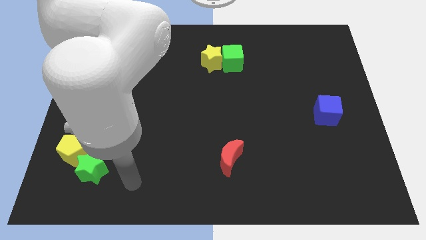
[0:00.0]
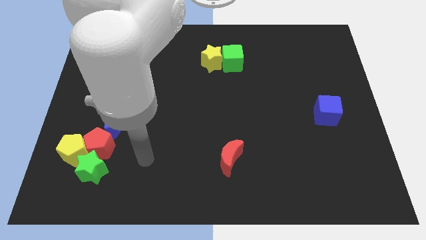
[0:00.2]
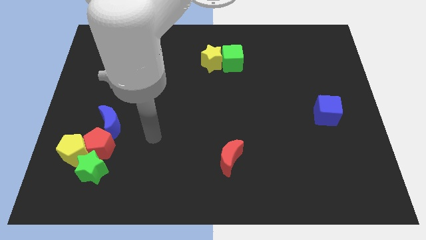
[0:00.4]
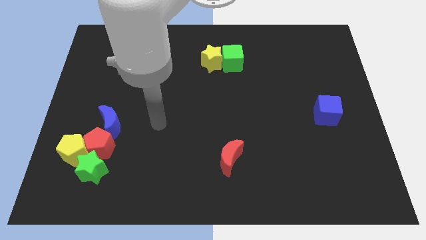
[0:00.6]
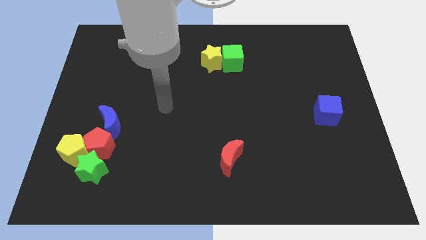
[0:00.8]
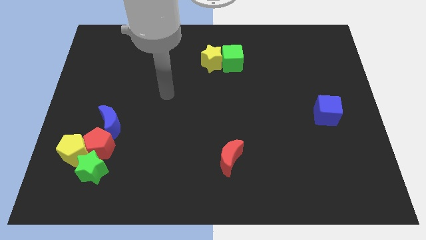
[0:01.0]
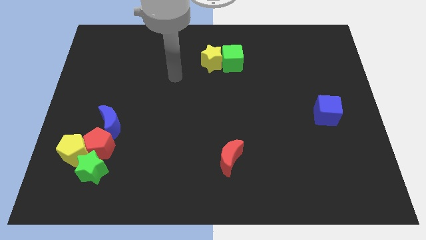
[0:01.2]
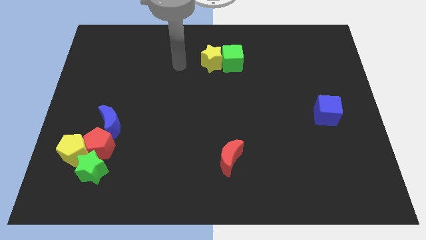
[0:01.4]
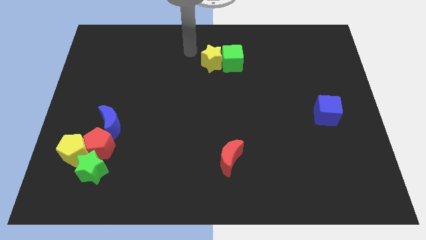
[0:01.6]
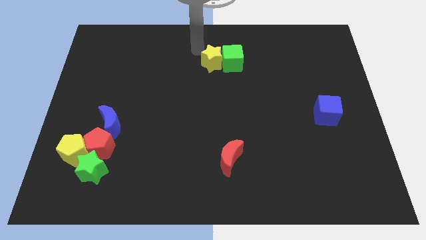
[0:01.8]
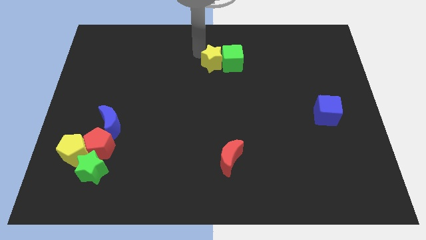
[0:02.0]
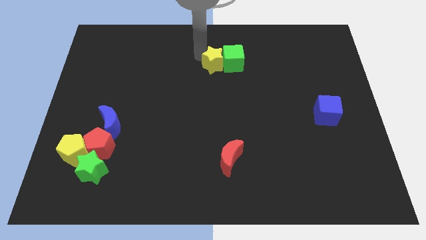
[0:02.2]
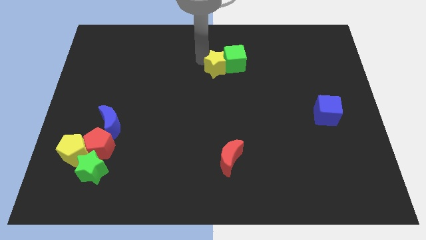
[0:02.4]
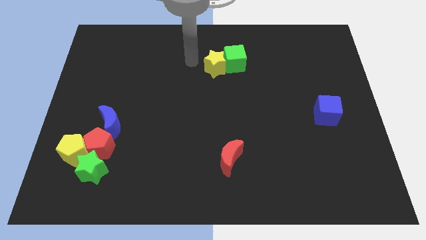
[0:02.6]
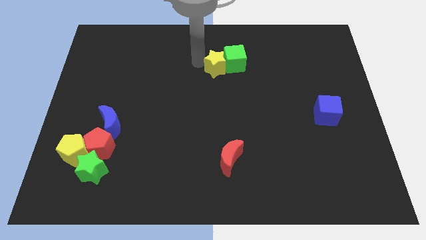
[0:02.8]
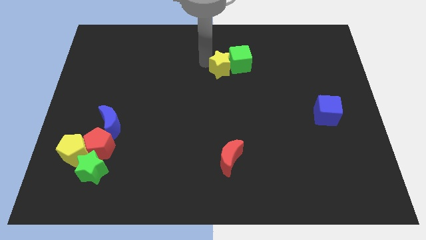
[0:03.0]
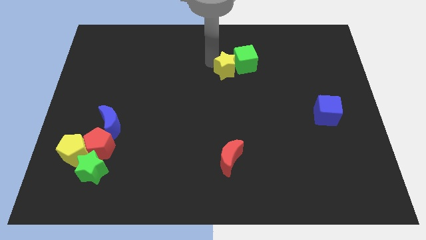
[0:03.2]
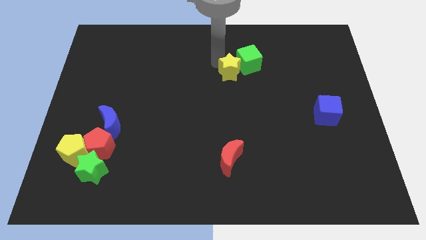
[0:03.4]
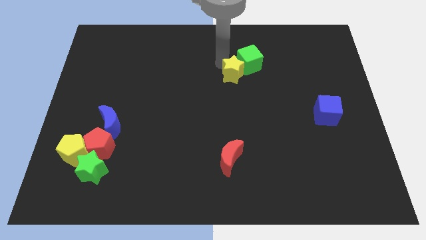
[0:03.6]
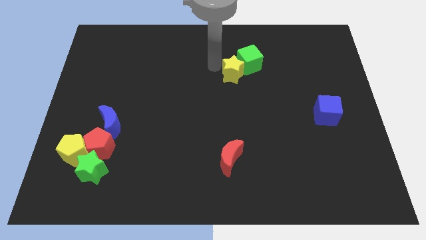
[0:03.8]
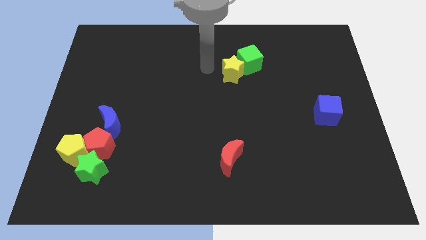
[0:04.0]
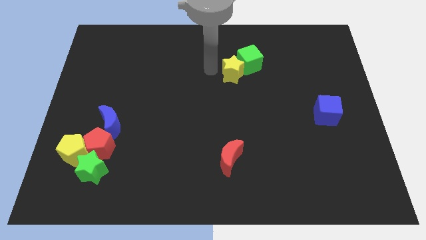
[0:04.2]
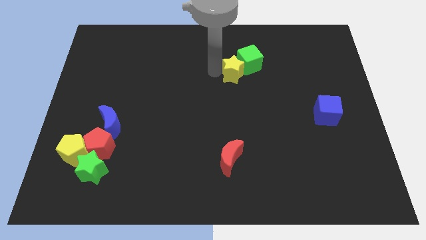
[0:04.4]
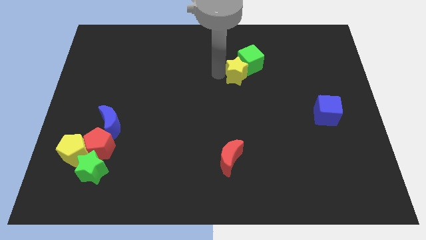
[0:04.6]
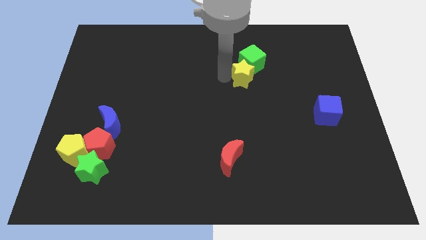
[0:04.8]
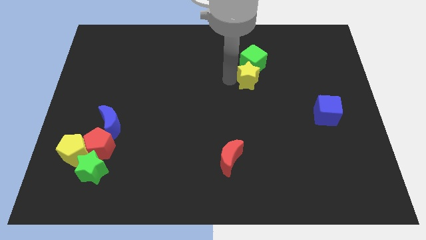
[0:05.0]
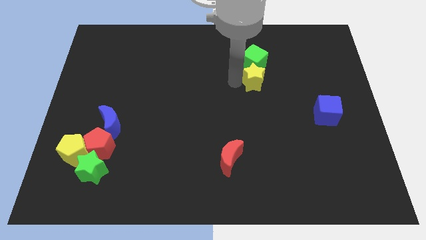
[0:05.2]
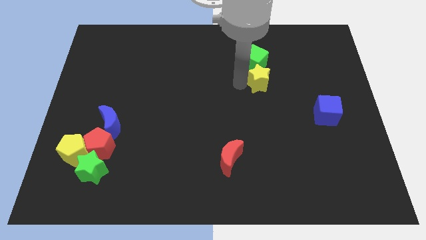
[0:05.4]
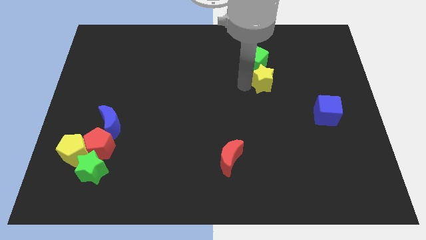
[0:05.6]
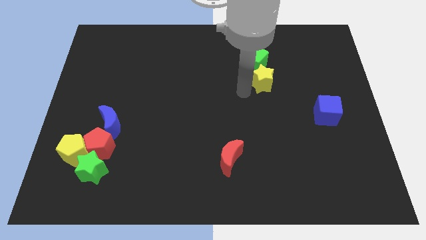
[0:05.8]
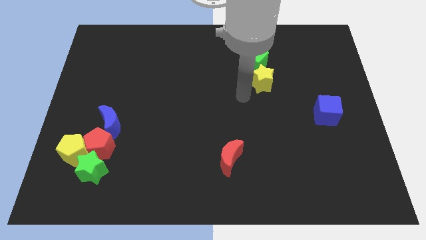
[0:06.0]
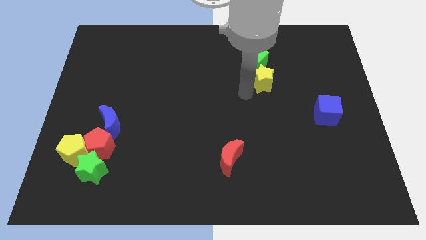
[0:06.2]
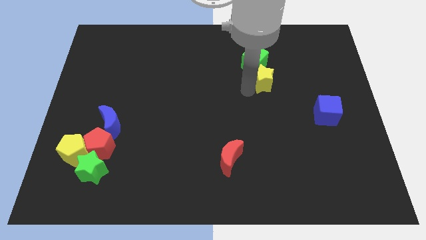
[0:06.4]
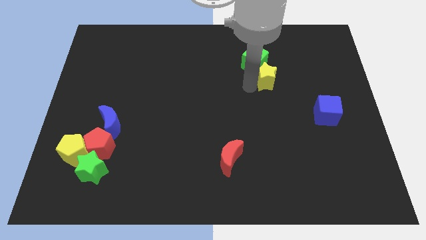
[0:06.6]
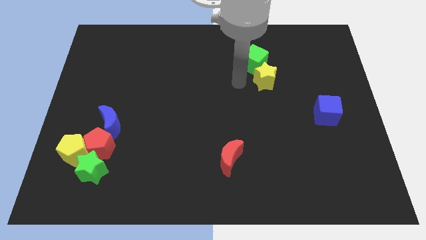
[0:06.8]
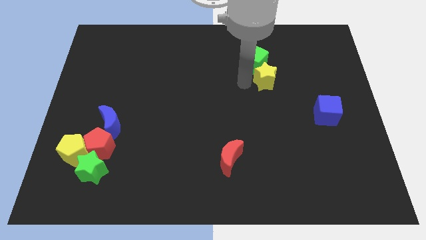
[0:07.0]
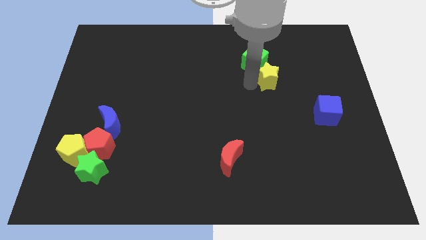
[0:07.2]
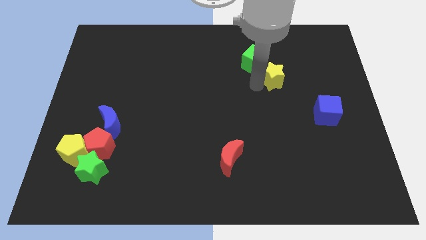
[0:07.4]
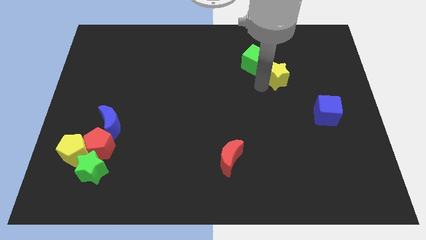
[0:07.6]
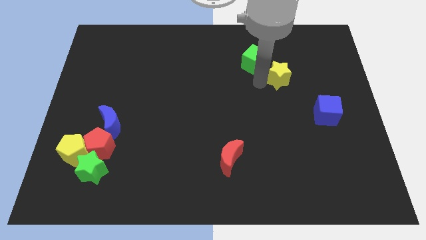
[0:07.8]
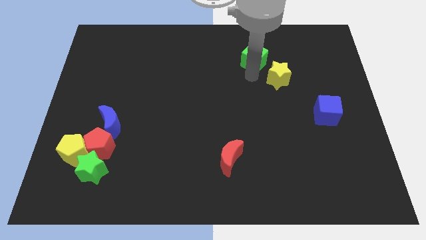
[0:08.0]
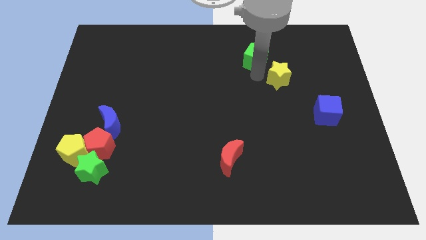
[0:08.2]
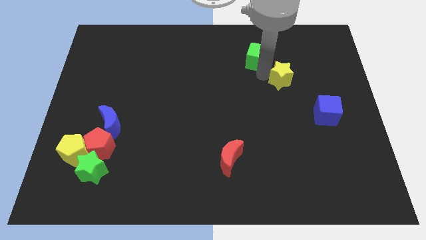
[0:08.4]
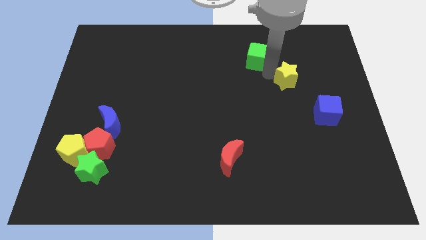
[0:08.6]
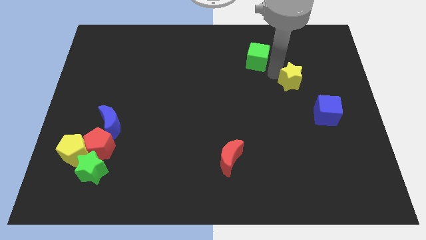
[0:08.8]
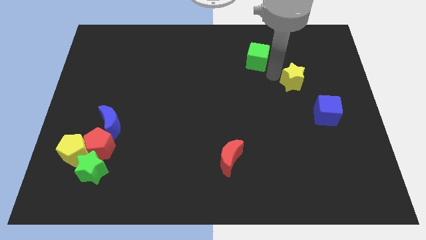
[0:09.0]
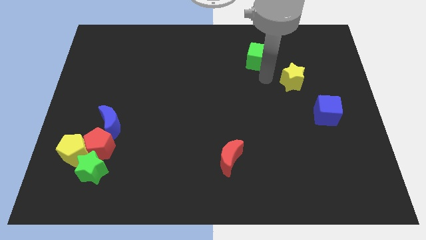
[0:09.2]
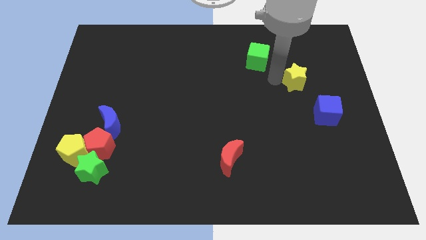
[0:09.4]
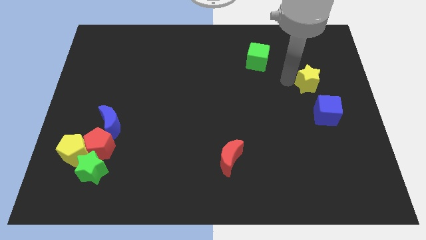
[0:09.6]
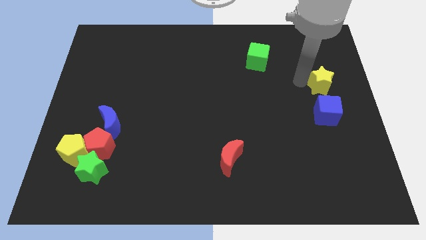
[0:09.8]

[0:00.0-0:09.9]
slide the yellow star to the right side of the board

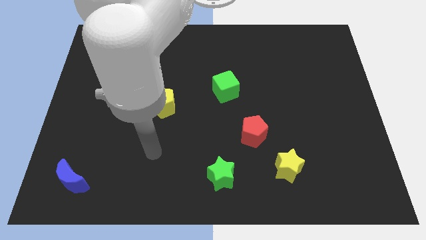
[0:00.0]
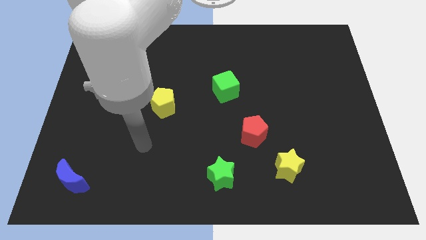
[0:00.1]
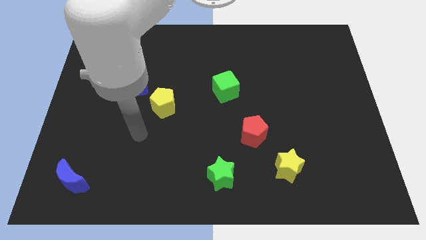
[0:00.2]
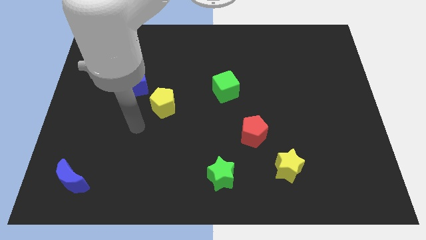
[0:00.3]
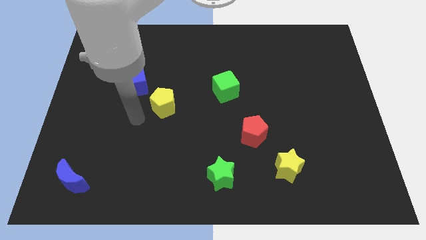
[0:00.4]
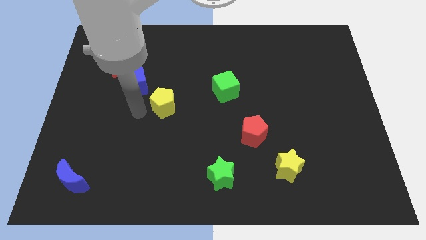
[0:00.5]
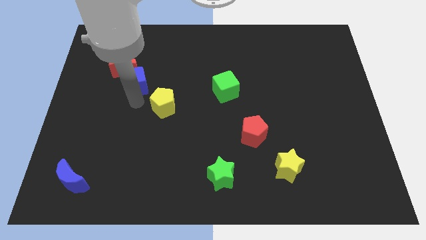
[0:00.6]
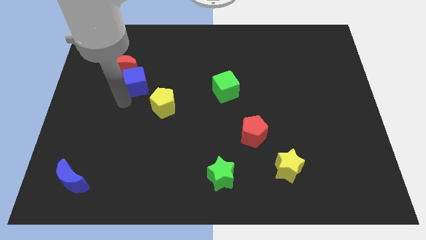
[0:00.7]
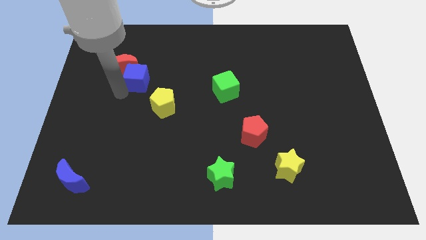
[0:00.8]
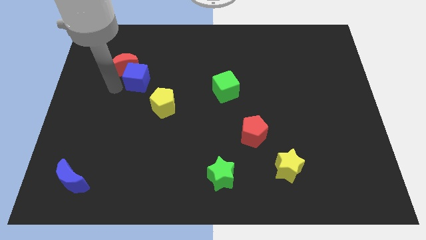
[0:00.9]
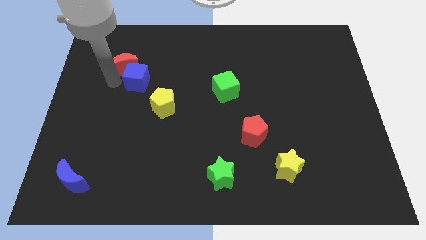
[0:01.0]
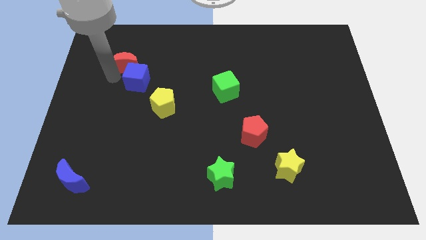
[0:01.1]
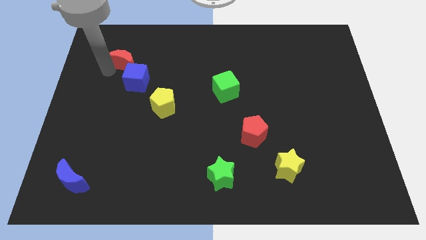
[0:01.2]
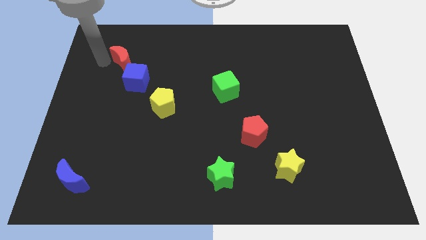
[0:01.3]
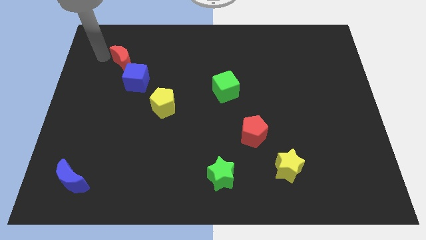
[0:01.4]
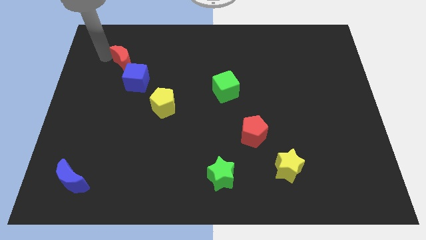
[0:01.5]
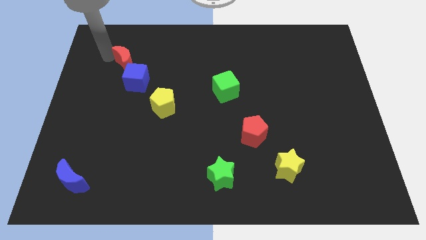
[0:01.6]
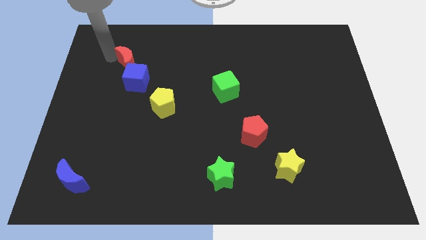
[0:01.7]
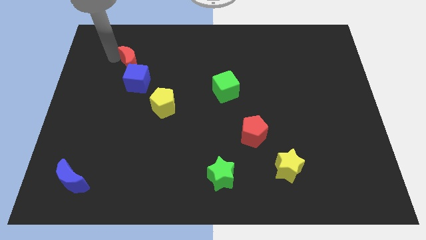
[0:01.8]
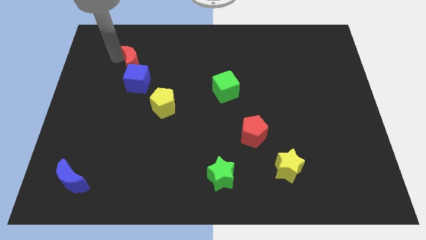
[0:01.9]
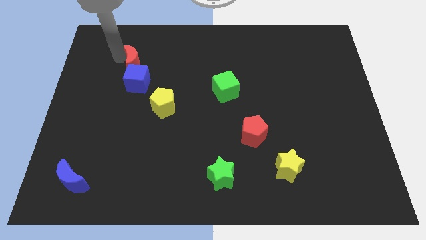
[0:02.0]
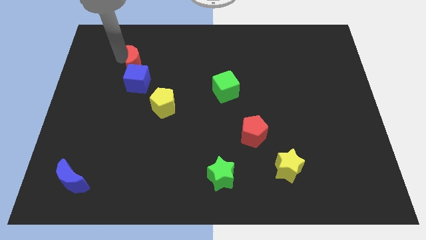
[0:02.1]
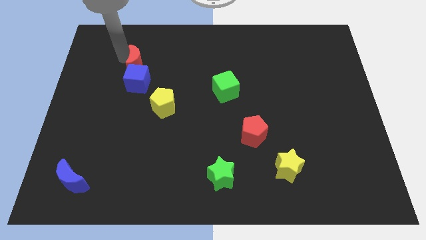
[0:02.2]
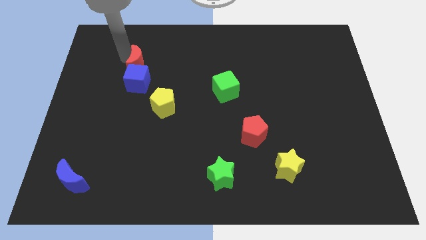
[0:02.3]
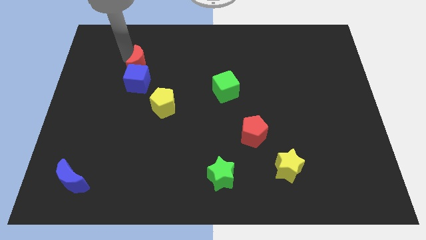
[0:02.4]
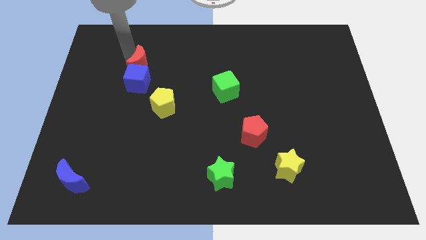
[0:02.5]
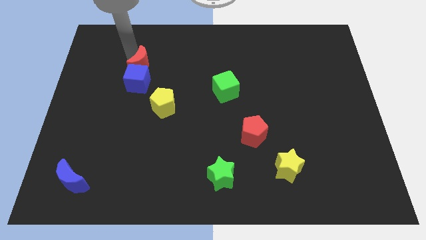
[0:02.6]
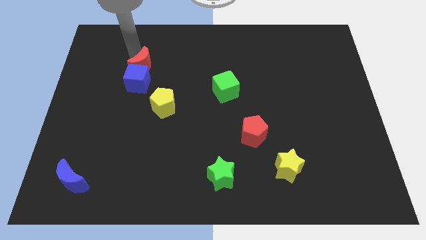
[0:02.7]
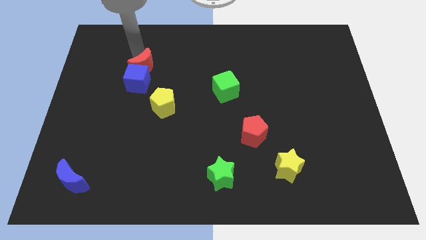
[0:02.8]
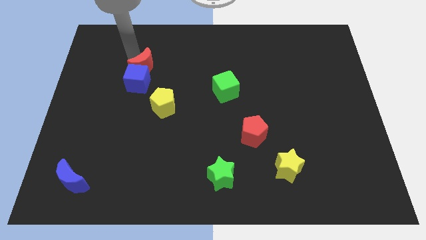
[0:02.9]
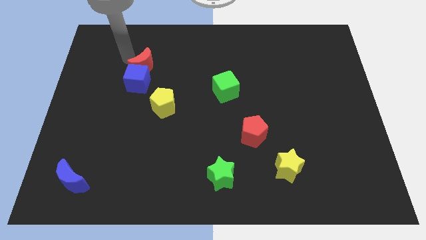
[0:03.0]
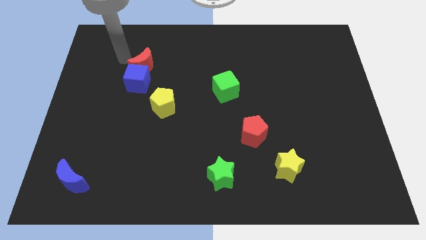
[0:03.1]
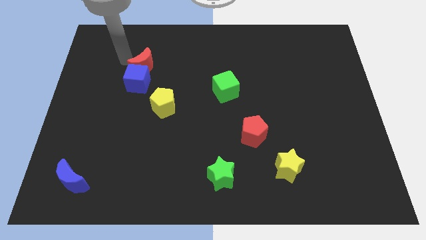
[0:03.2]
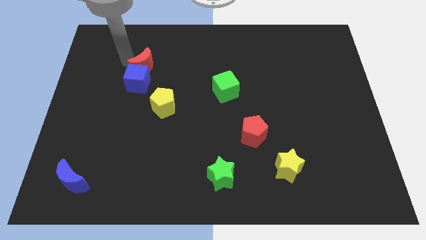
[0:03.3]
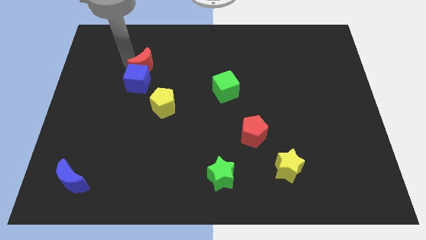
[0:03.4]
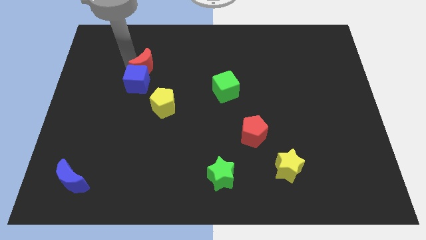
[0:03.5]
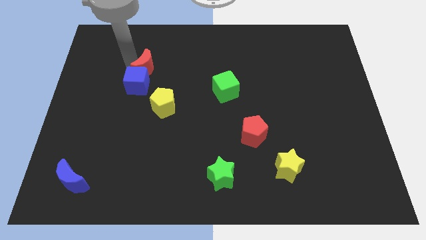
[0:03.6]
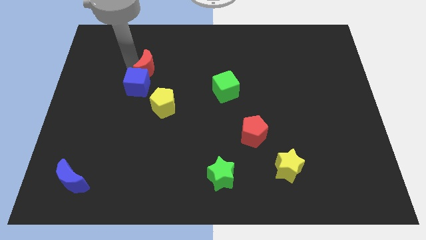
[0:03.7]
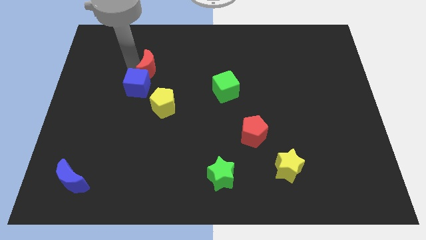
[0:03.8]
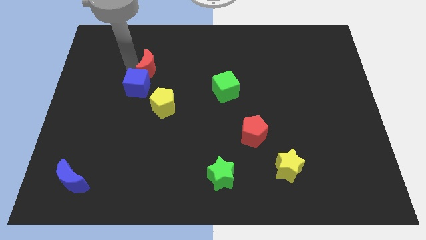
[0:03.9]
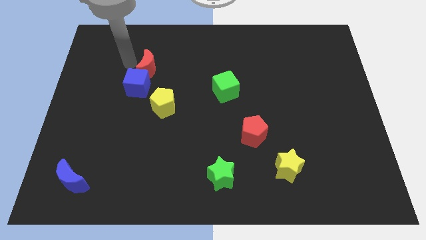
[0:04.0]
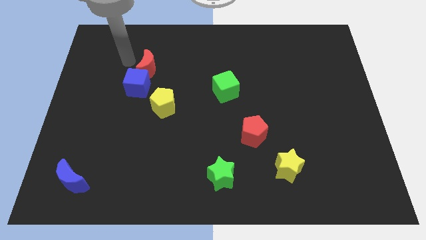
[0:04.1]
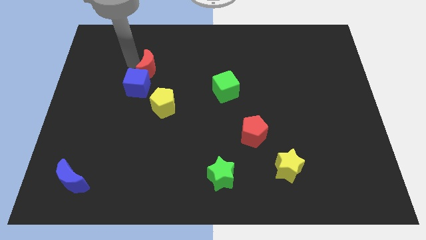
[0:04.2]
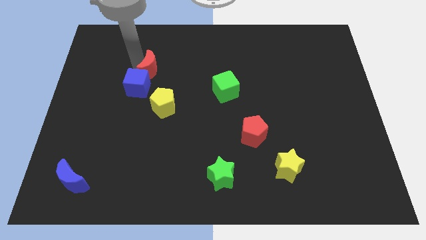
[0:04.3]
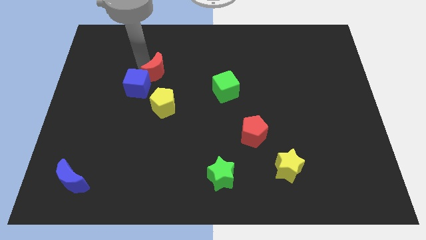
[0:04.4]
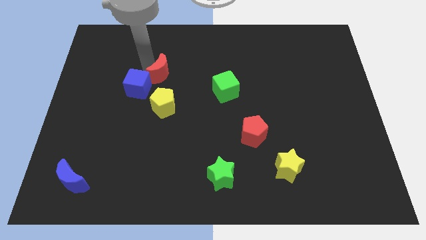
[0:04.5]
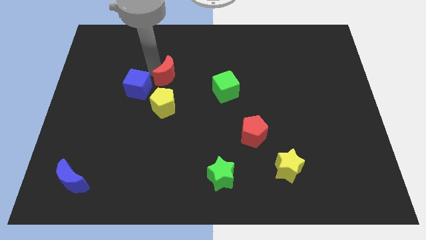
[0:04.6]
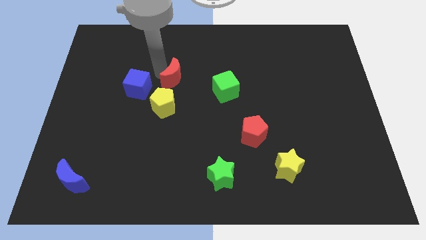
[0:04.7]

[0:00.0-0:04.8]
push the red moon to the center
